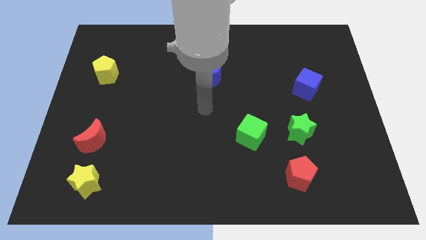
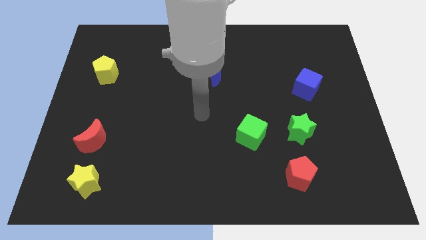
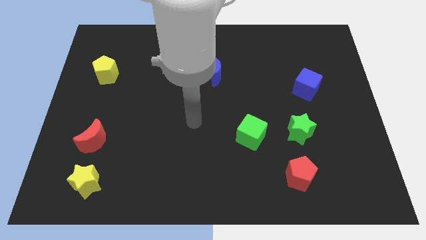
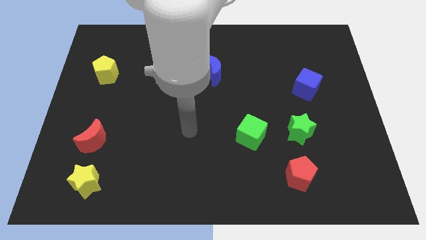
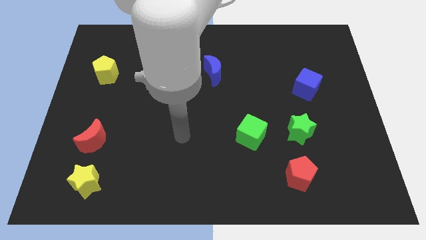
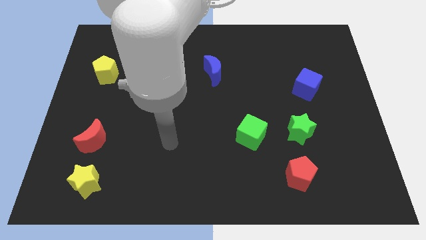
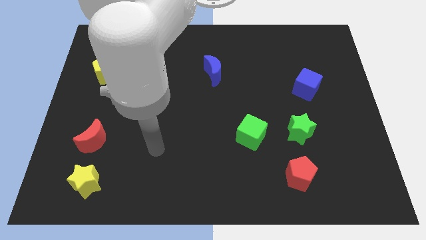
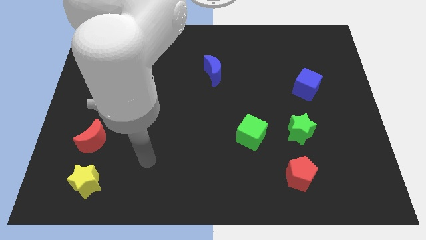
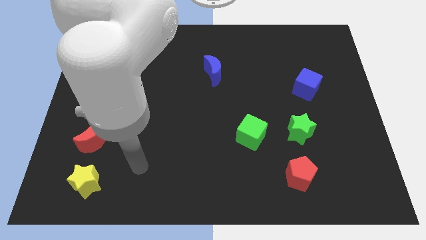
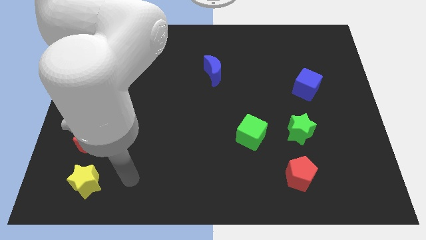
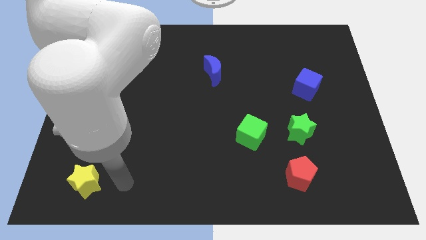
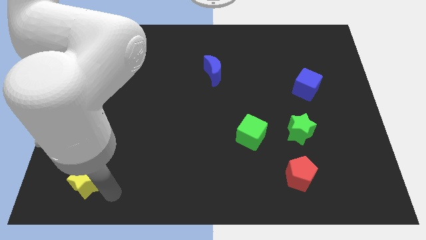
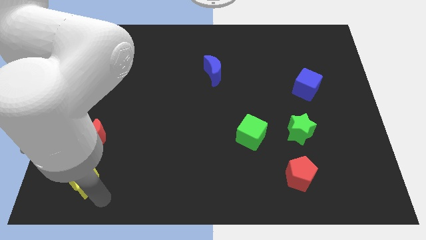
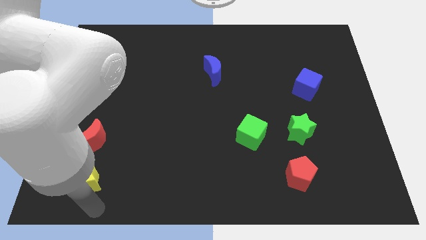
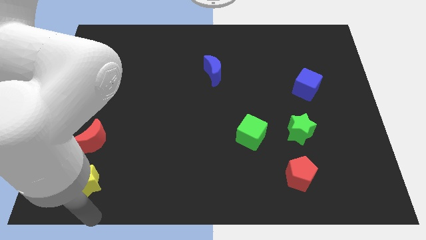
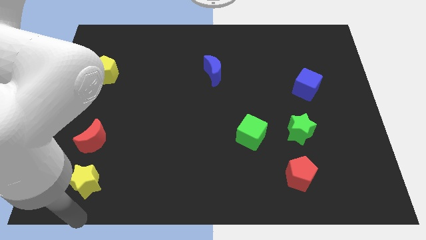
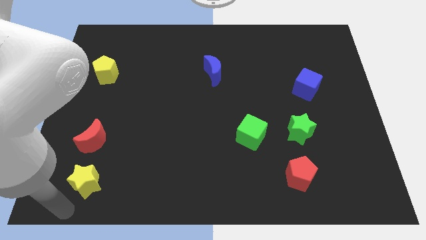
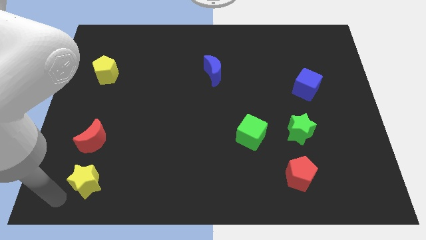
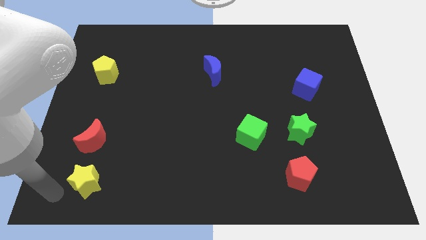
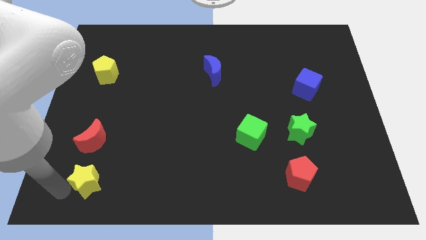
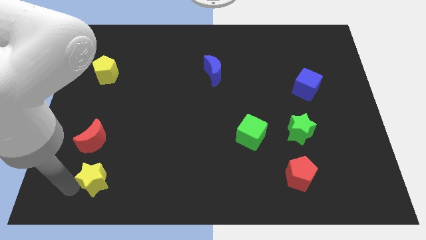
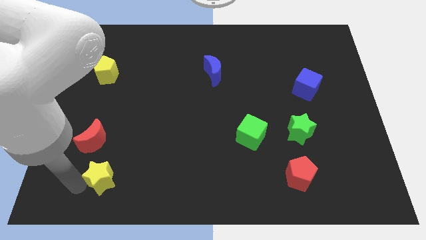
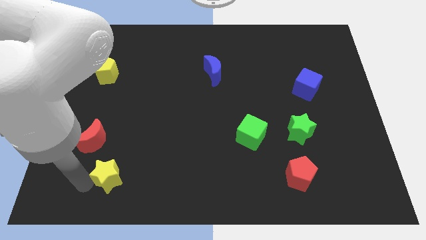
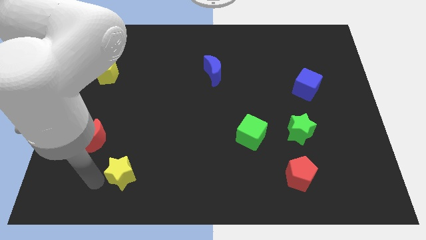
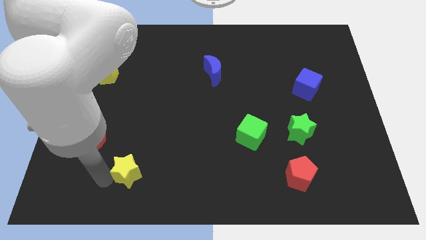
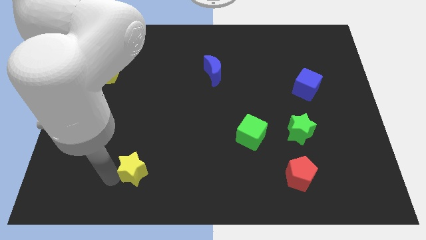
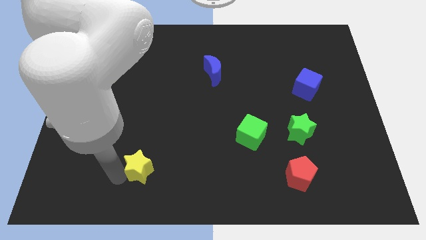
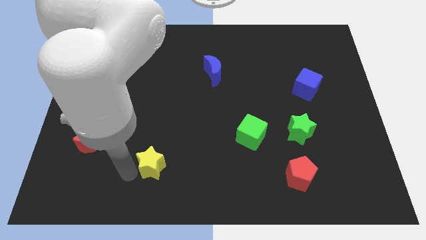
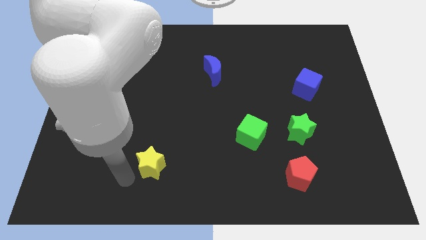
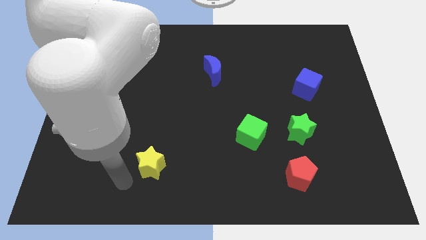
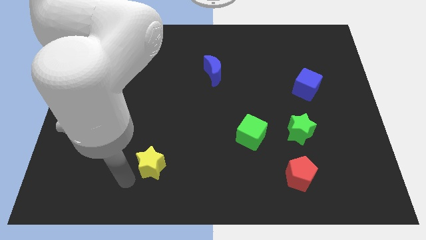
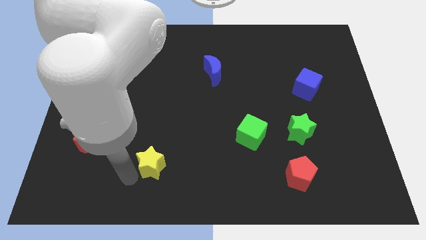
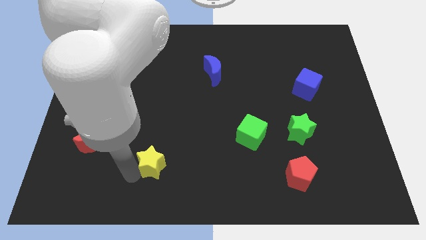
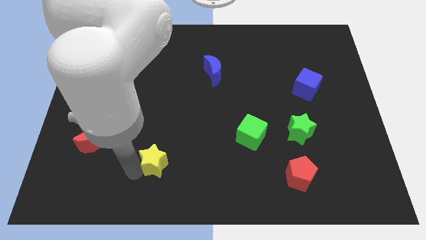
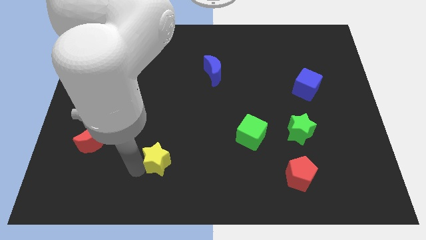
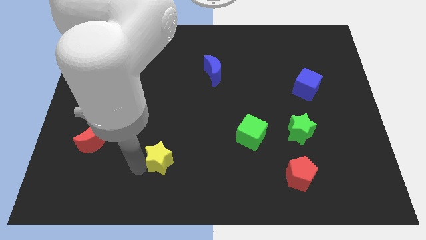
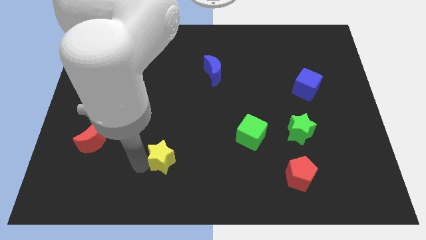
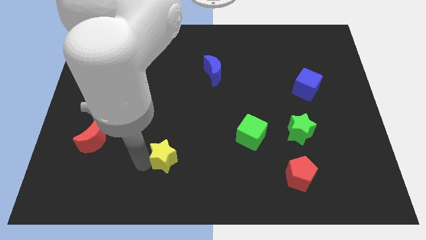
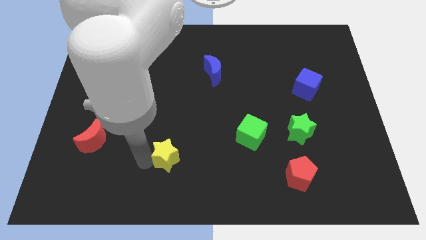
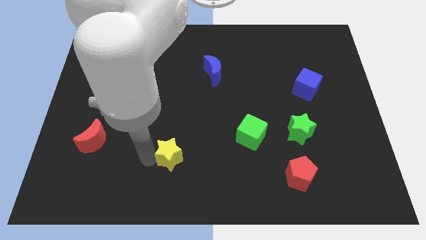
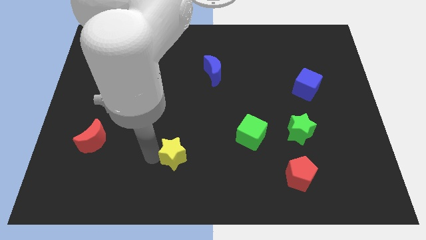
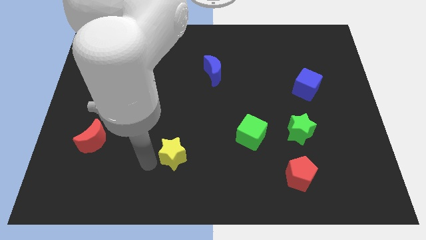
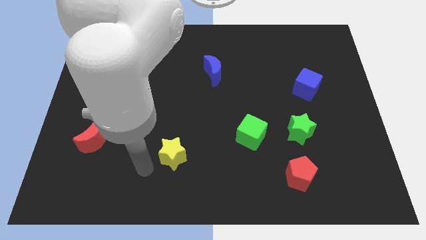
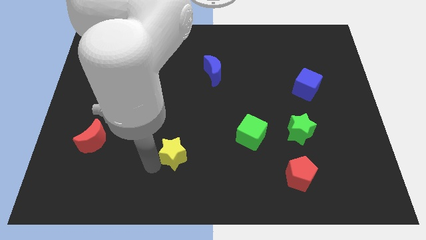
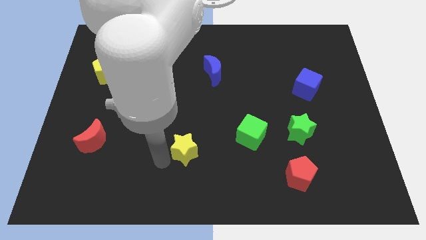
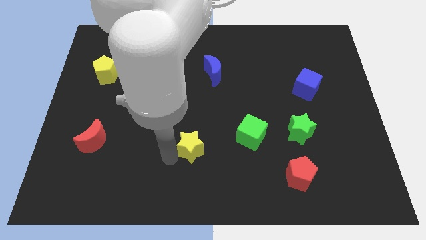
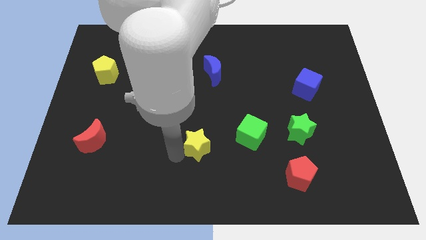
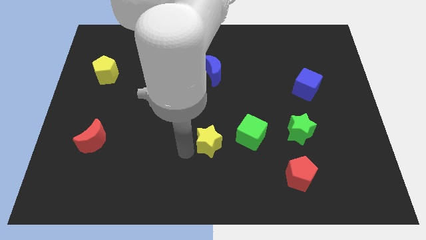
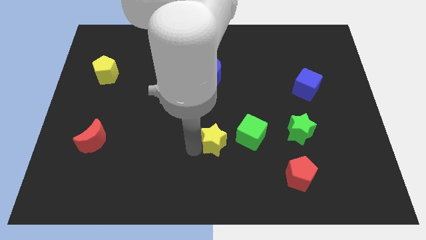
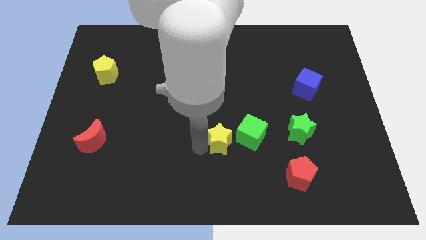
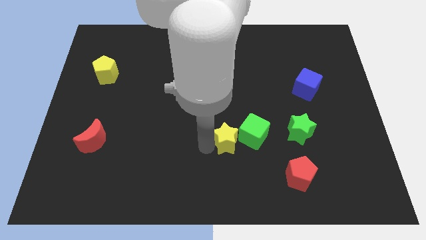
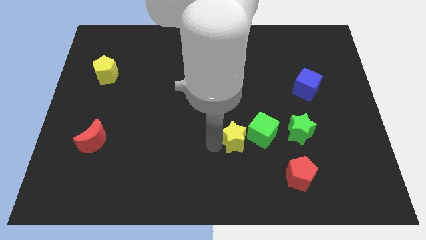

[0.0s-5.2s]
move the yellow star left of the green star

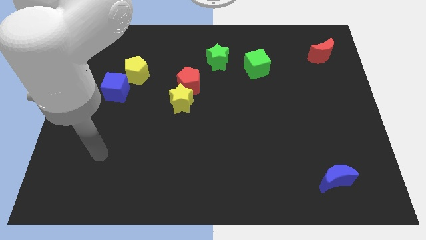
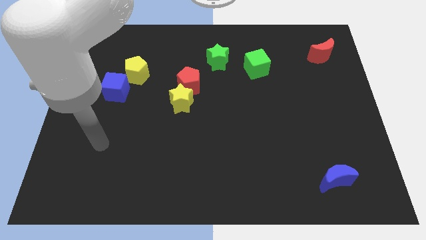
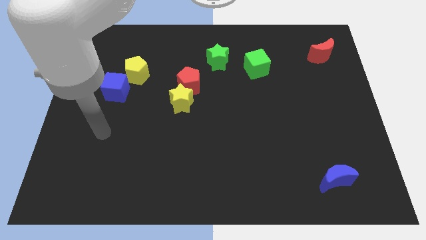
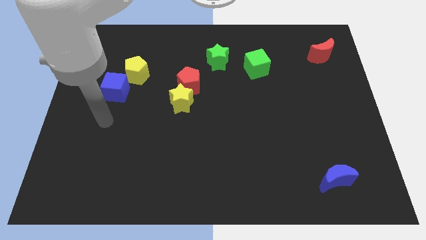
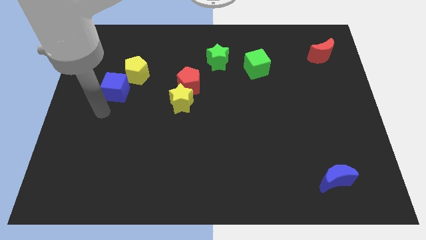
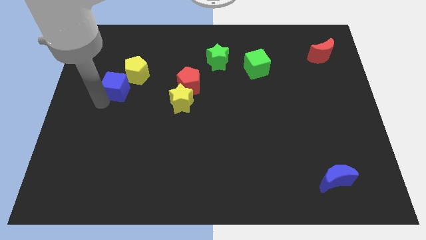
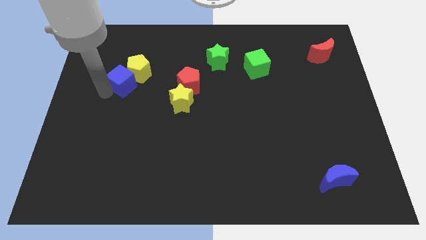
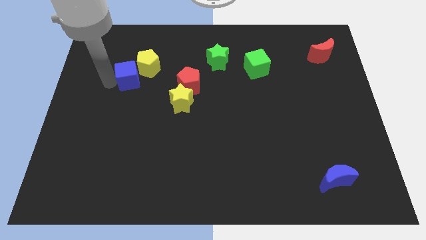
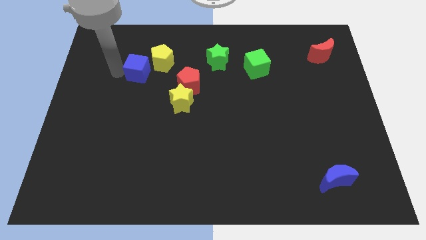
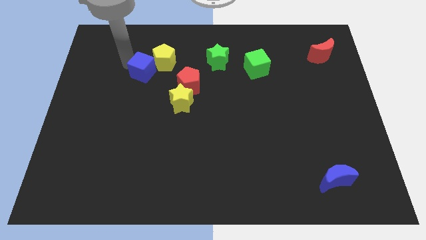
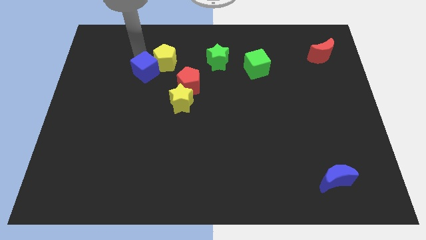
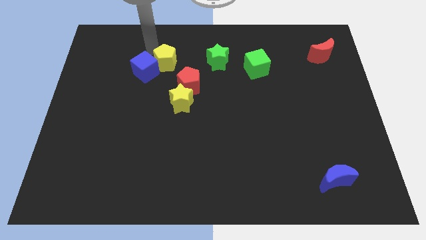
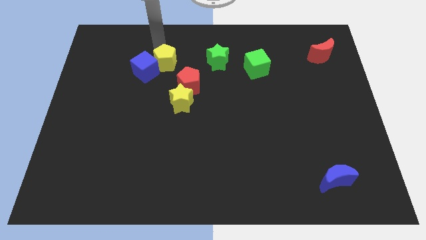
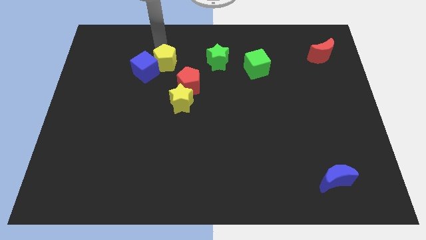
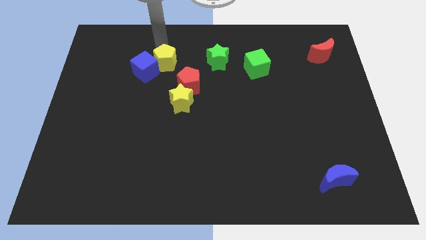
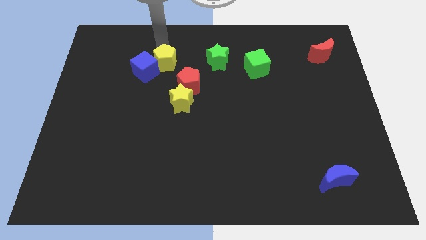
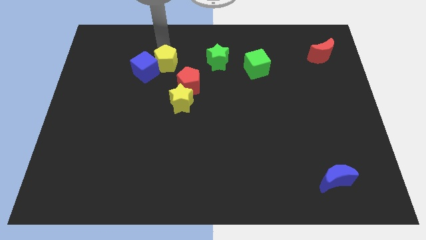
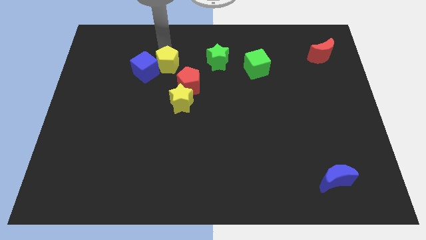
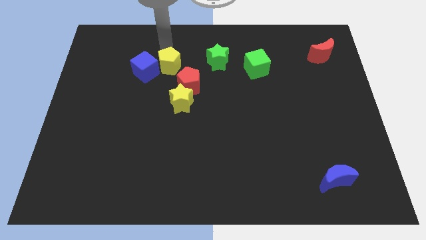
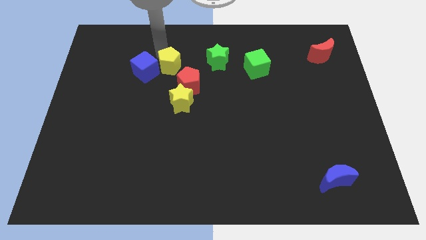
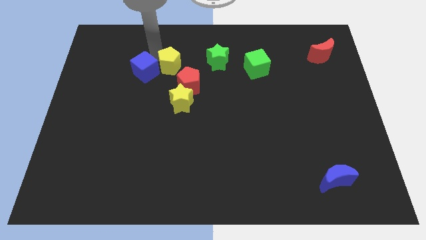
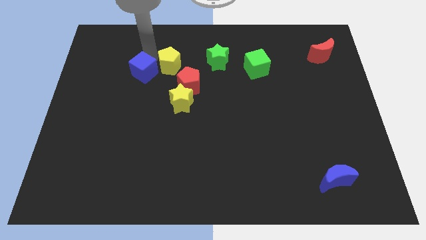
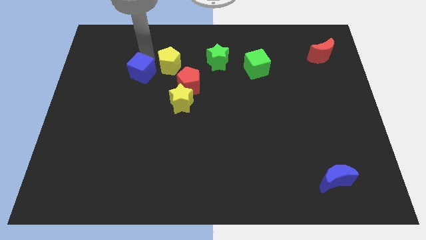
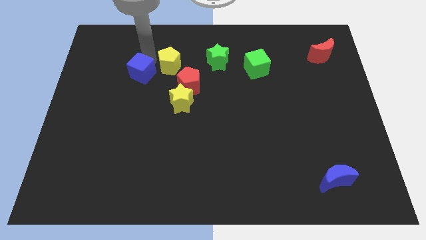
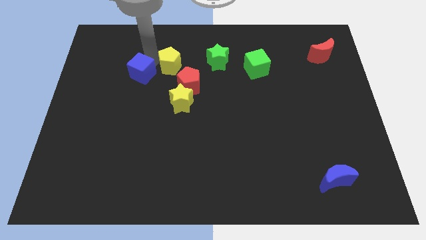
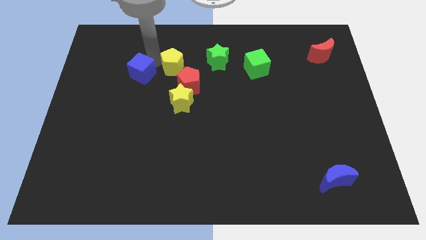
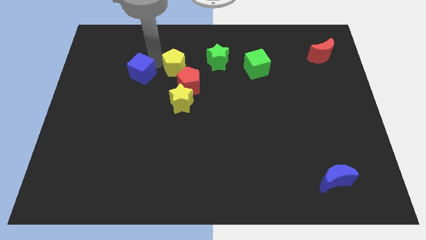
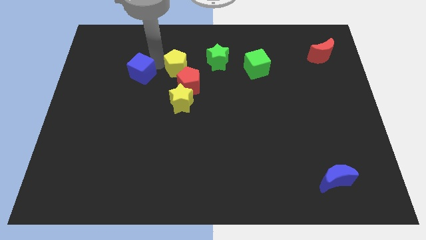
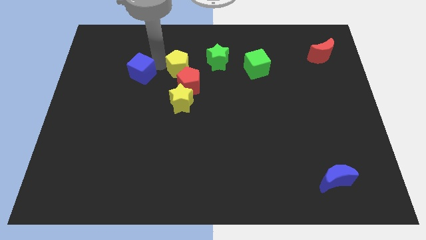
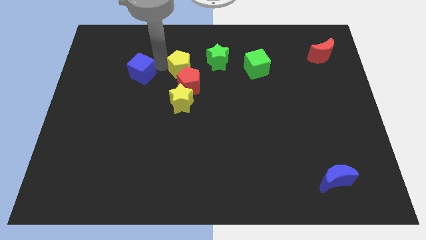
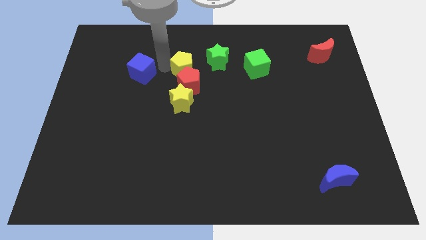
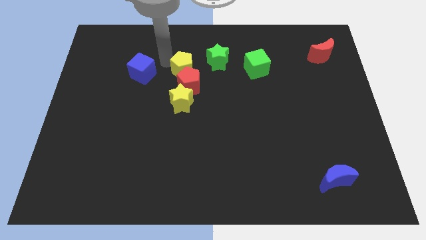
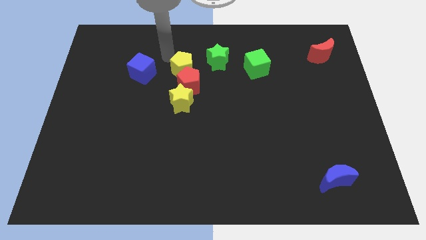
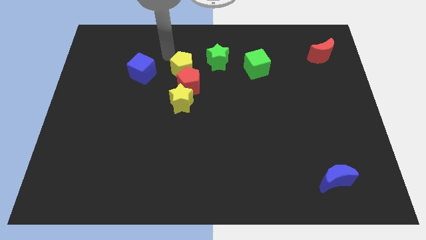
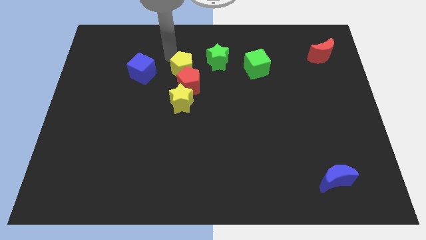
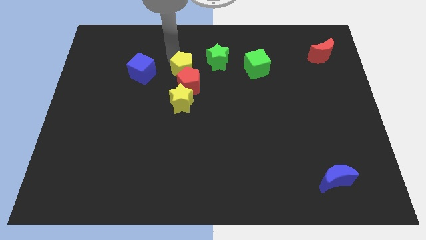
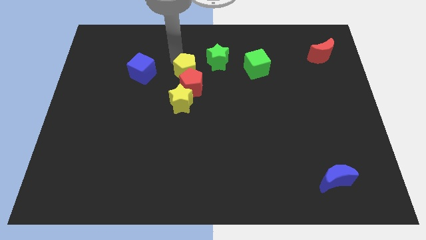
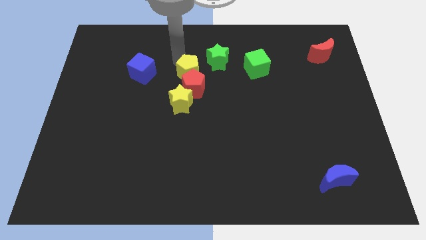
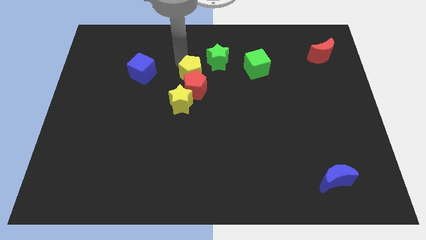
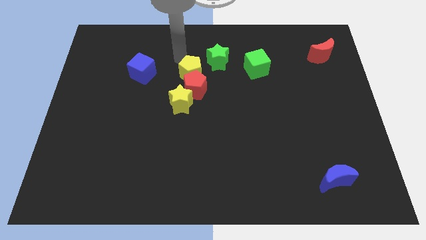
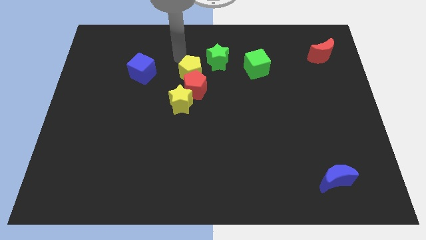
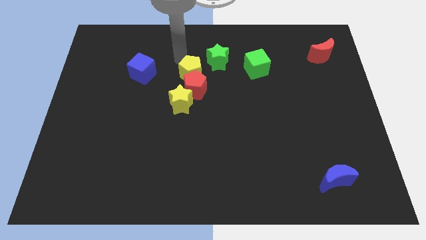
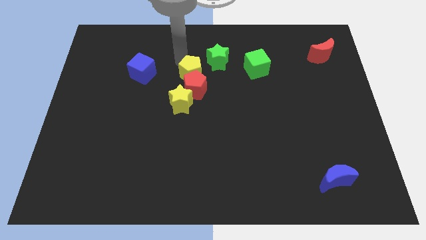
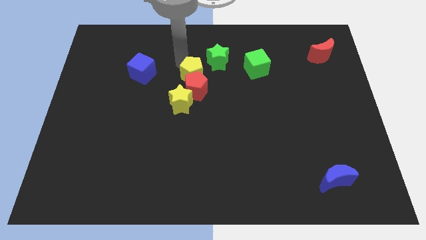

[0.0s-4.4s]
slide the yellow pentagon diagonally up and to the right of the yellow star
